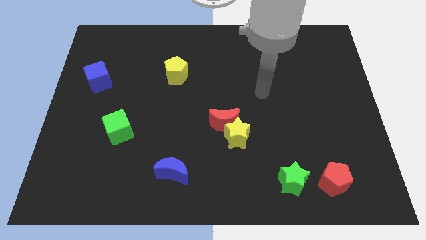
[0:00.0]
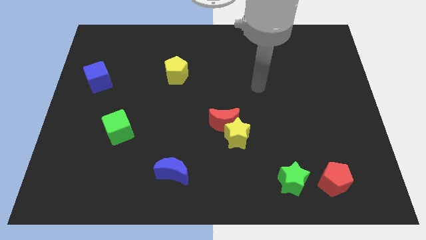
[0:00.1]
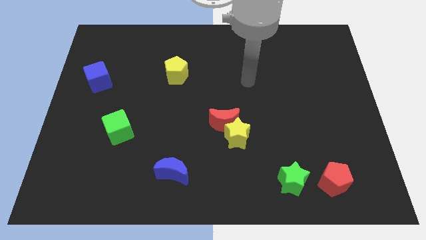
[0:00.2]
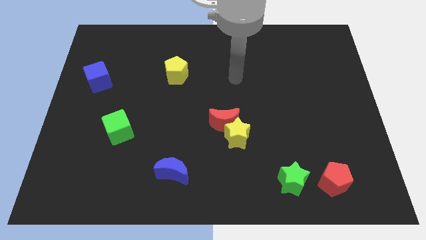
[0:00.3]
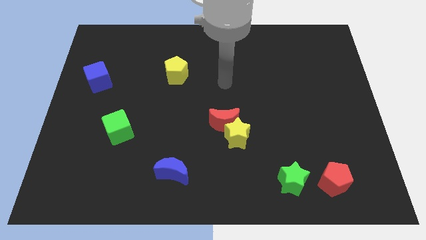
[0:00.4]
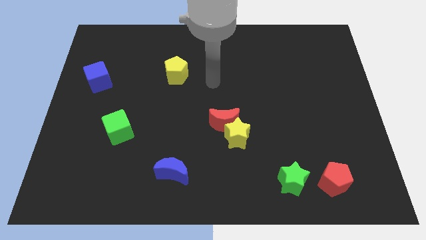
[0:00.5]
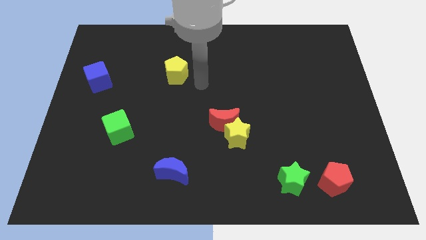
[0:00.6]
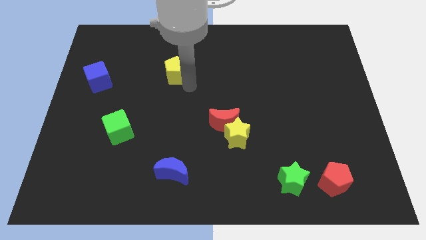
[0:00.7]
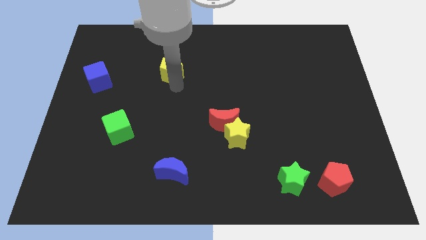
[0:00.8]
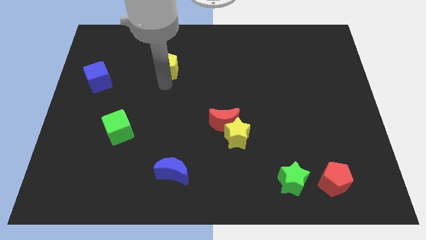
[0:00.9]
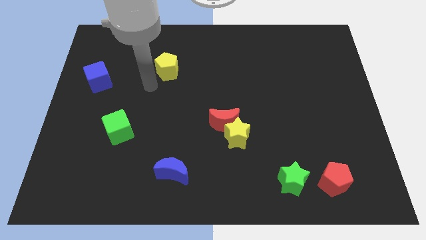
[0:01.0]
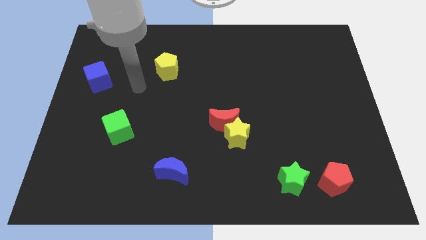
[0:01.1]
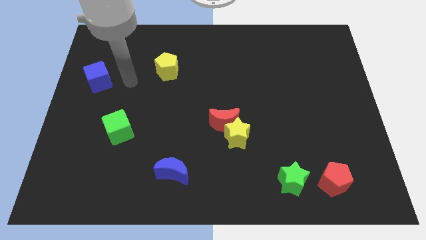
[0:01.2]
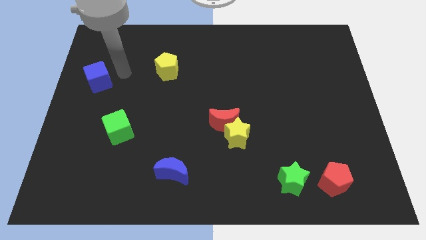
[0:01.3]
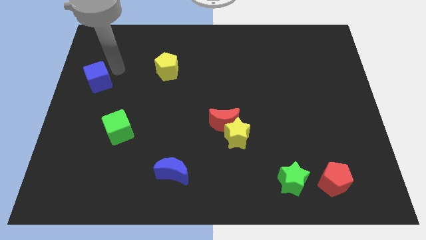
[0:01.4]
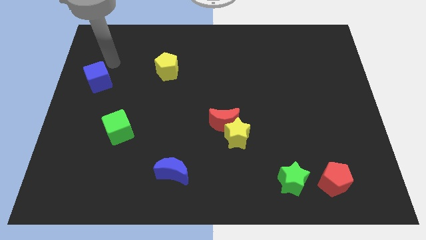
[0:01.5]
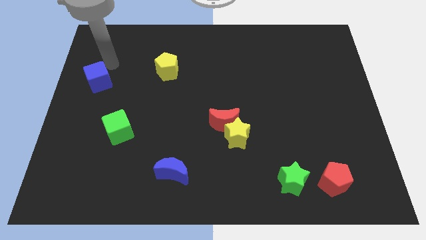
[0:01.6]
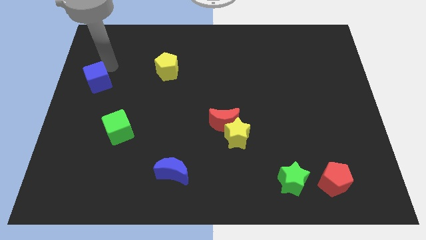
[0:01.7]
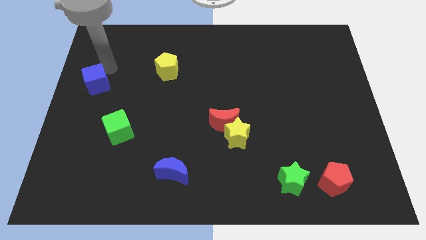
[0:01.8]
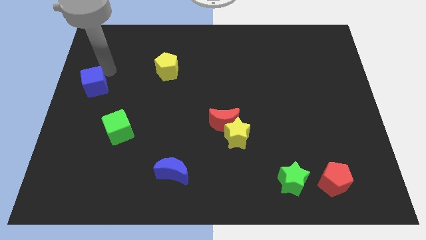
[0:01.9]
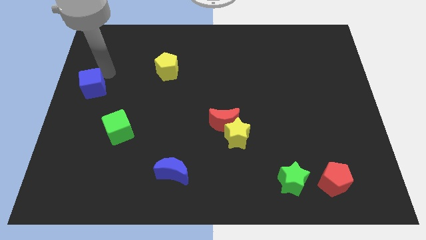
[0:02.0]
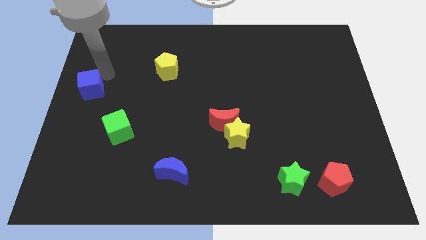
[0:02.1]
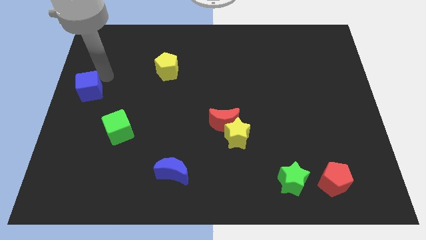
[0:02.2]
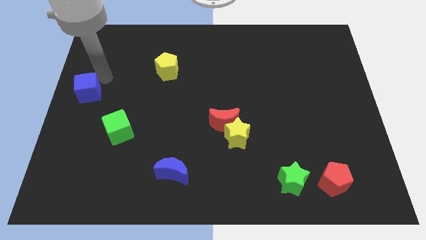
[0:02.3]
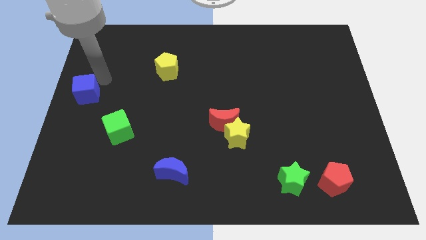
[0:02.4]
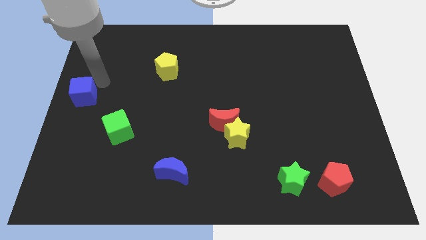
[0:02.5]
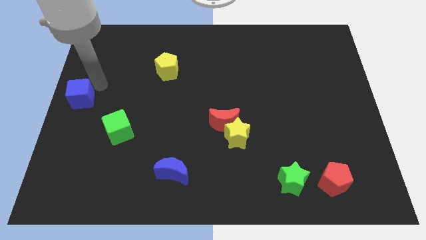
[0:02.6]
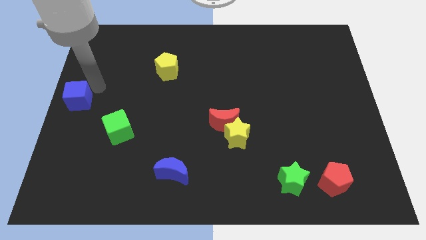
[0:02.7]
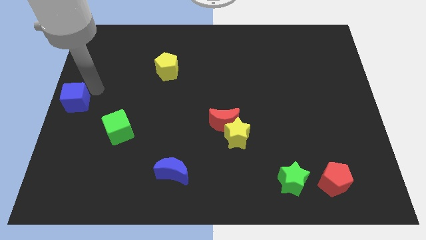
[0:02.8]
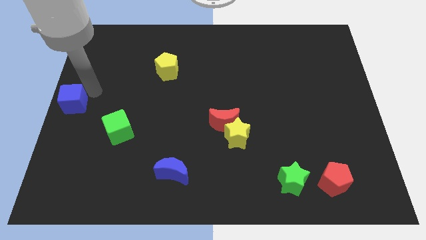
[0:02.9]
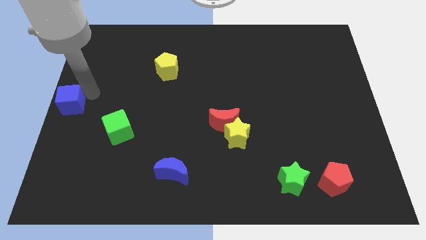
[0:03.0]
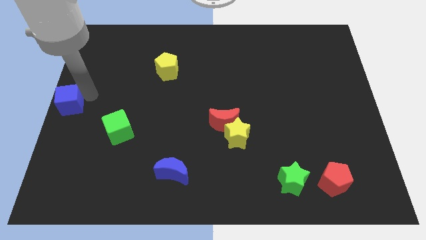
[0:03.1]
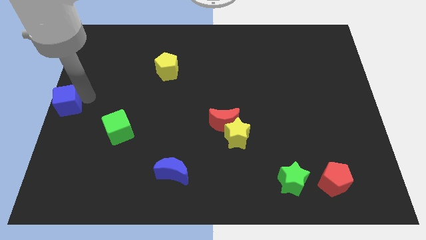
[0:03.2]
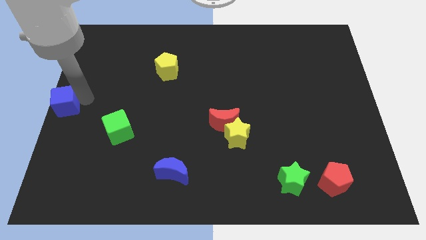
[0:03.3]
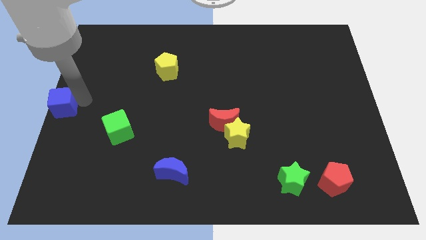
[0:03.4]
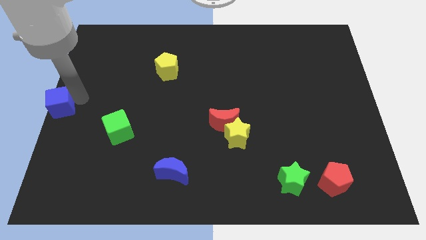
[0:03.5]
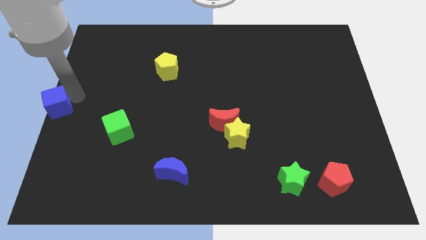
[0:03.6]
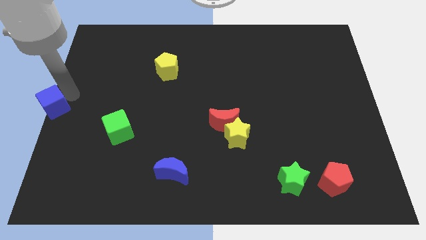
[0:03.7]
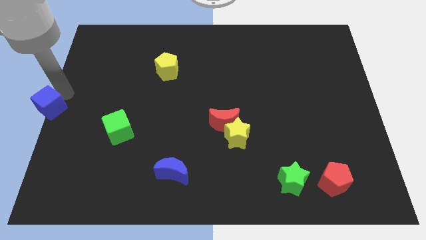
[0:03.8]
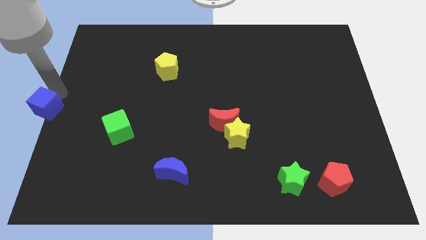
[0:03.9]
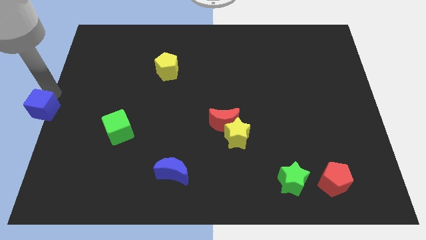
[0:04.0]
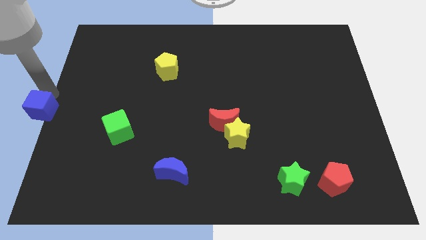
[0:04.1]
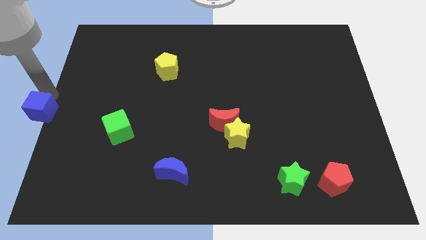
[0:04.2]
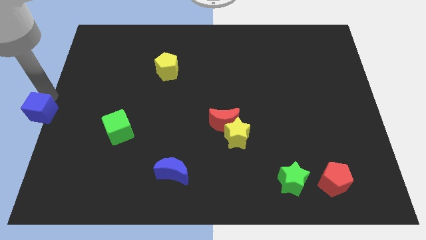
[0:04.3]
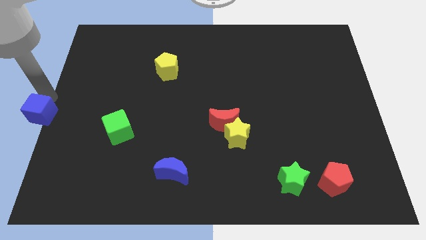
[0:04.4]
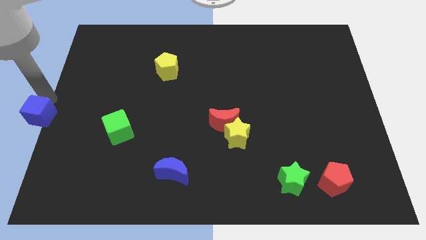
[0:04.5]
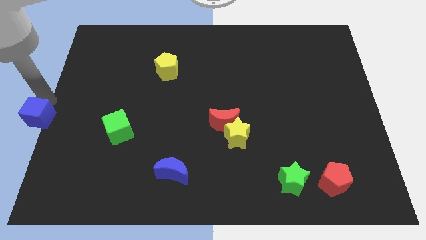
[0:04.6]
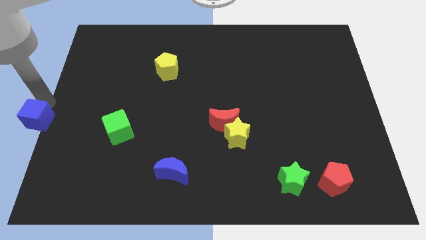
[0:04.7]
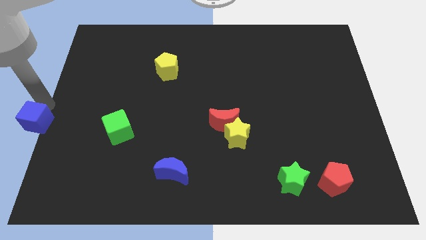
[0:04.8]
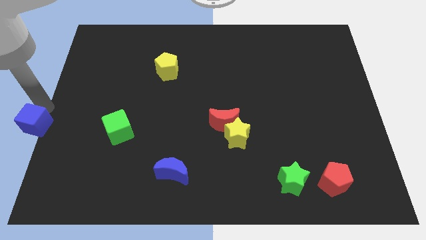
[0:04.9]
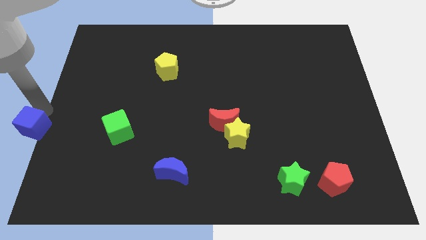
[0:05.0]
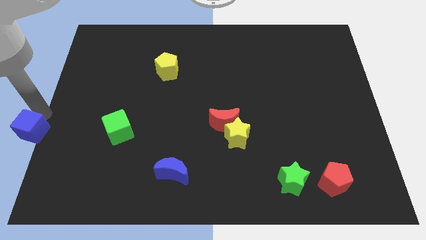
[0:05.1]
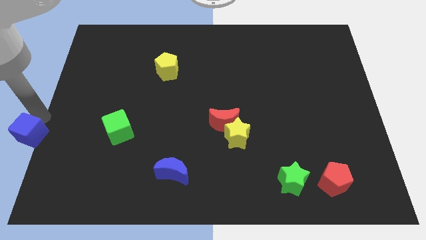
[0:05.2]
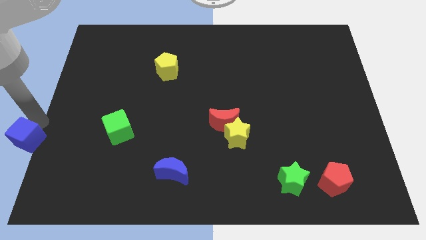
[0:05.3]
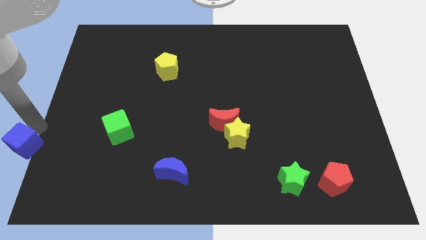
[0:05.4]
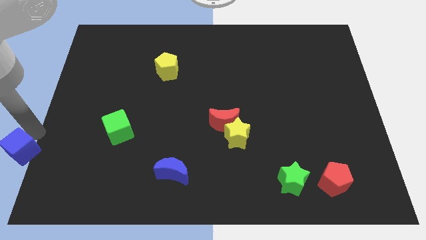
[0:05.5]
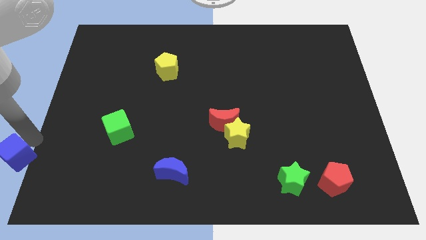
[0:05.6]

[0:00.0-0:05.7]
slide the blue cube to the bottom left
